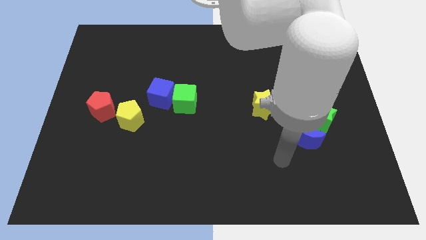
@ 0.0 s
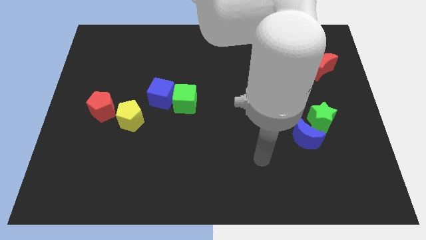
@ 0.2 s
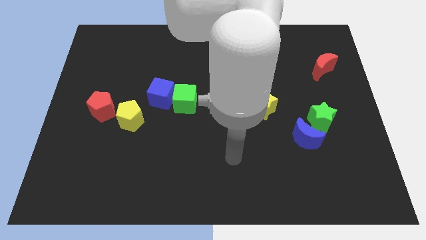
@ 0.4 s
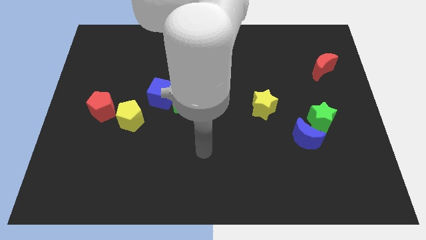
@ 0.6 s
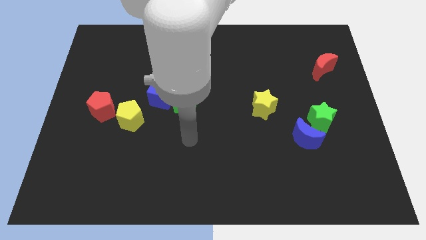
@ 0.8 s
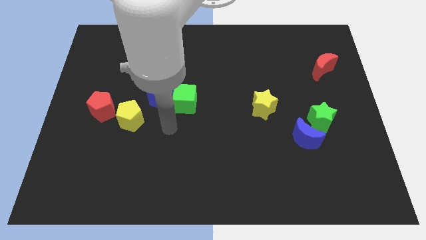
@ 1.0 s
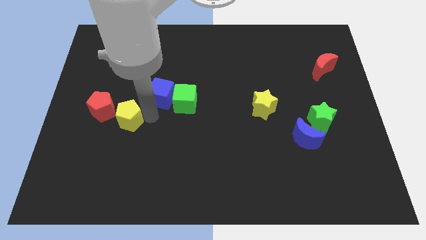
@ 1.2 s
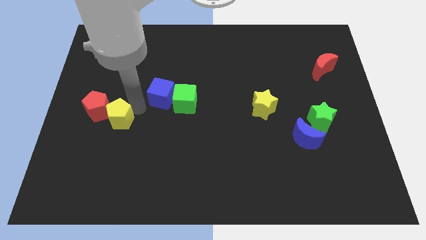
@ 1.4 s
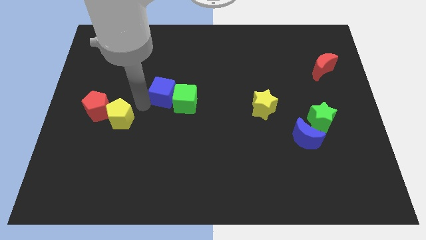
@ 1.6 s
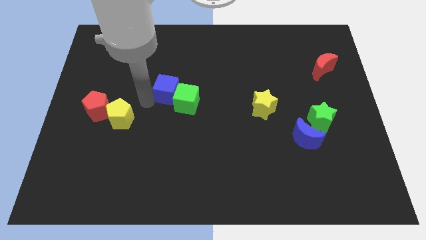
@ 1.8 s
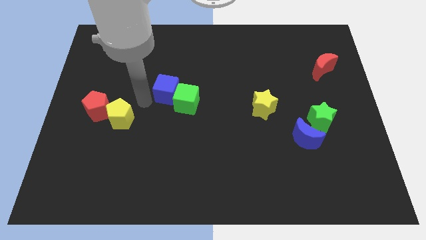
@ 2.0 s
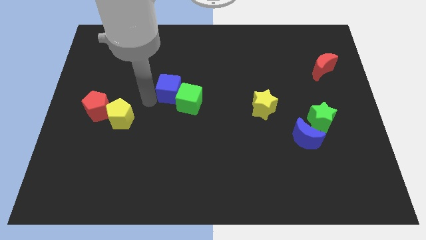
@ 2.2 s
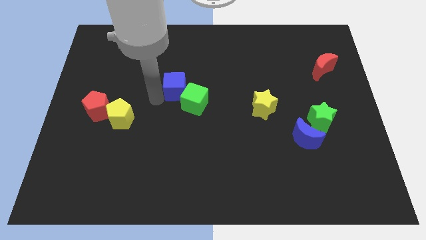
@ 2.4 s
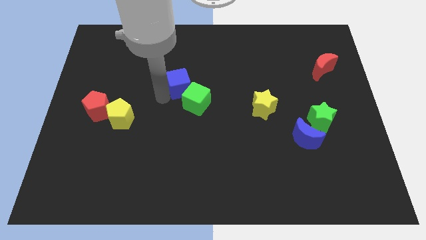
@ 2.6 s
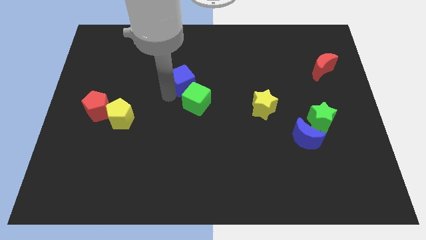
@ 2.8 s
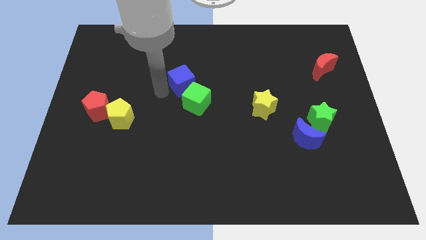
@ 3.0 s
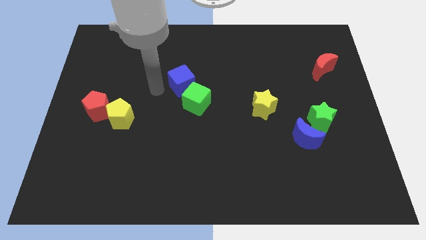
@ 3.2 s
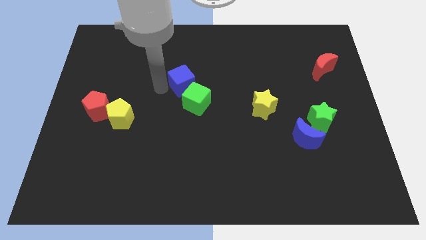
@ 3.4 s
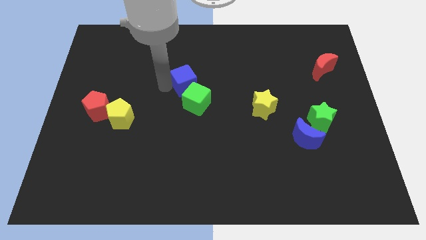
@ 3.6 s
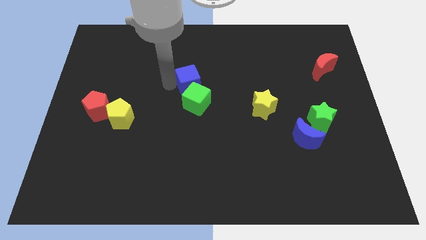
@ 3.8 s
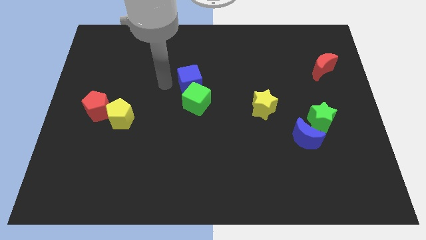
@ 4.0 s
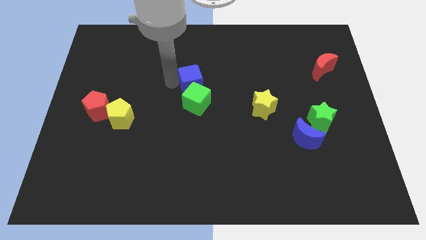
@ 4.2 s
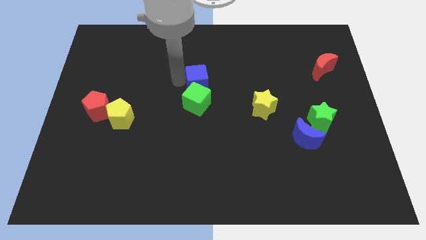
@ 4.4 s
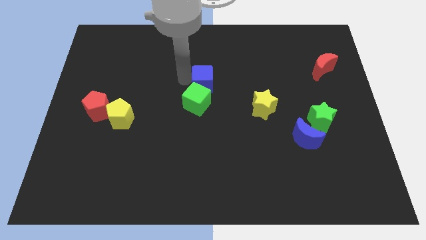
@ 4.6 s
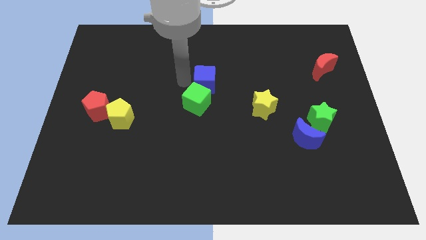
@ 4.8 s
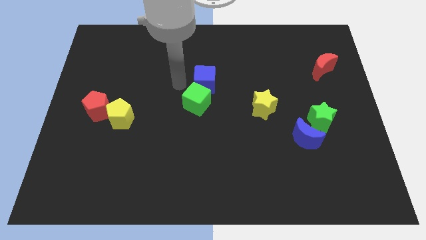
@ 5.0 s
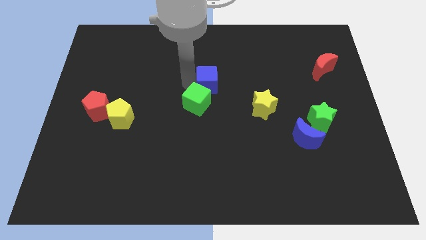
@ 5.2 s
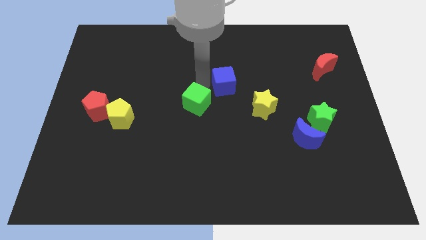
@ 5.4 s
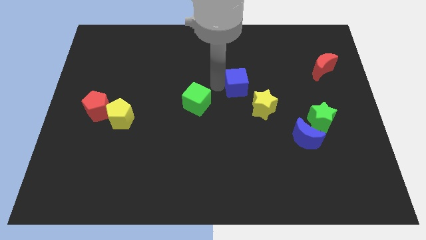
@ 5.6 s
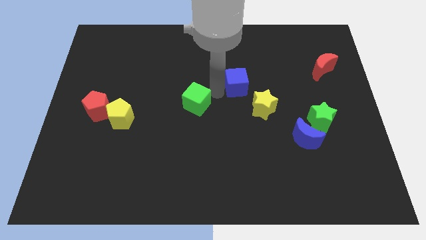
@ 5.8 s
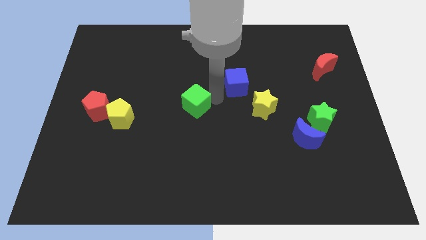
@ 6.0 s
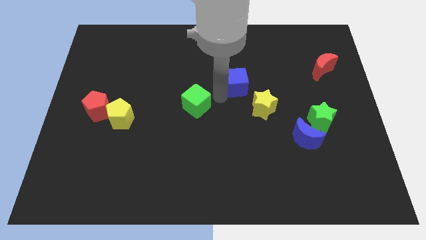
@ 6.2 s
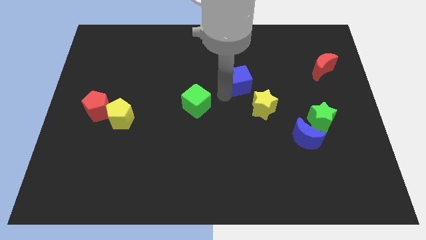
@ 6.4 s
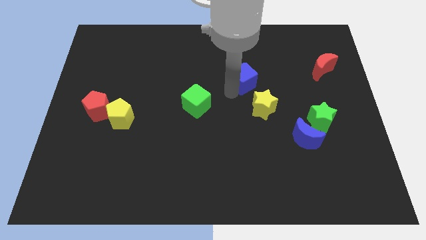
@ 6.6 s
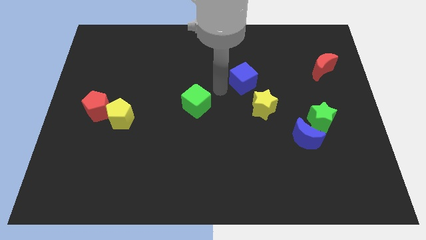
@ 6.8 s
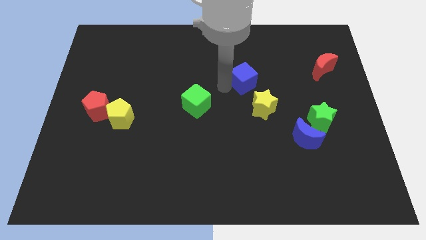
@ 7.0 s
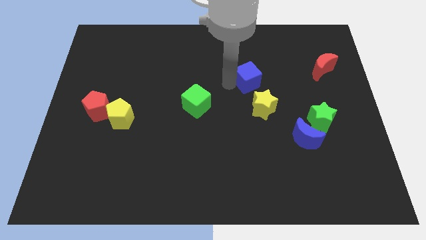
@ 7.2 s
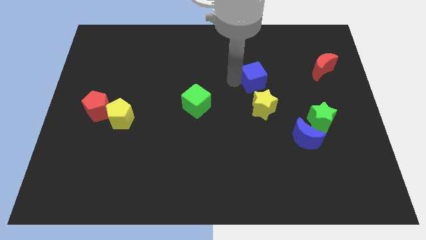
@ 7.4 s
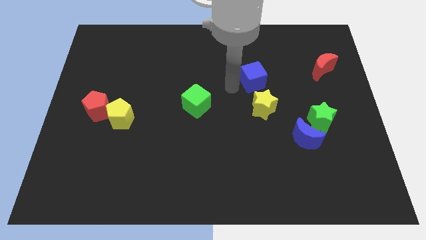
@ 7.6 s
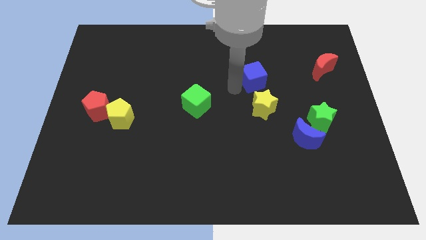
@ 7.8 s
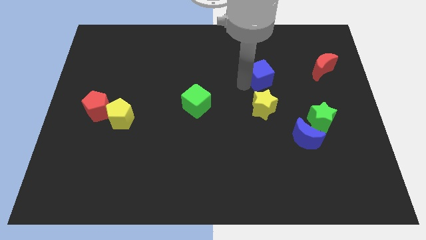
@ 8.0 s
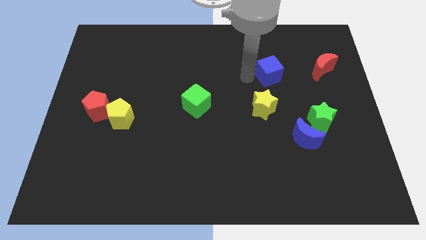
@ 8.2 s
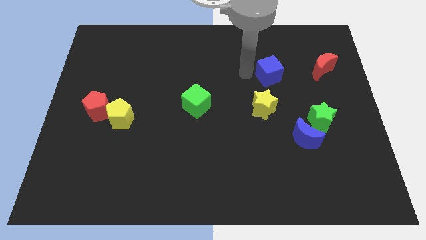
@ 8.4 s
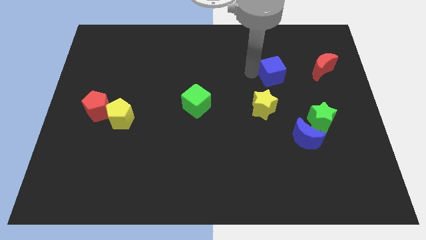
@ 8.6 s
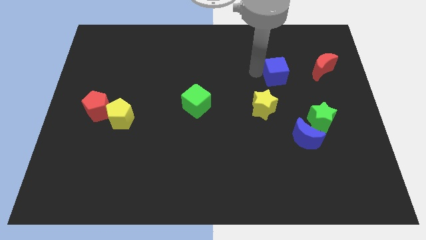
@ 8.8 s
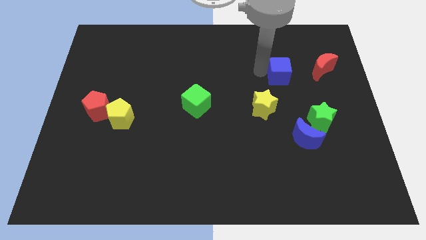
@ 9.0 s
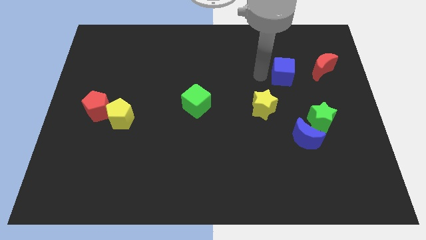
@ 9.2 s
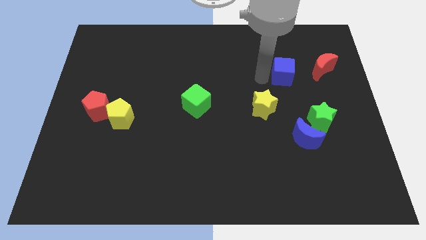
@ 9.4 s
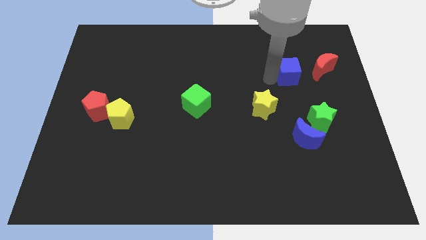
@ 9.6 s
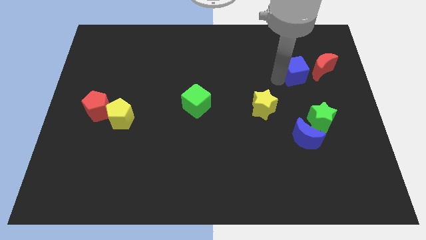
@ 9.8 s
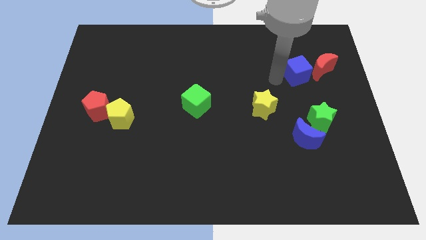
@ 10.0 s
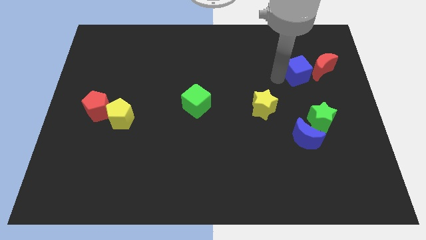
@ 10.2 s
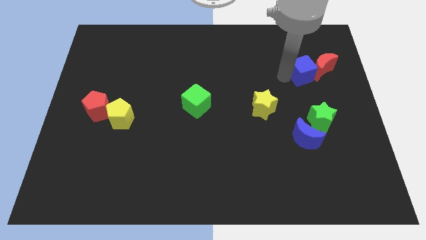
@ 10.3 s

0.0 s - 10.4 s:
slide the blue cube close to the red moon

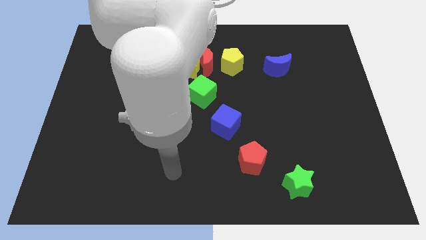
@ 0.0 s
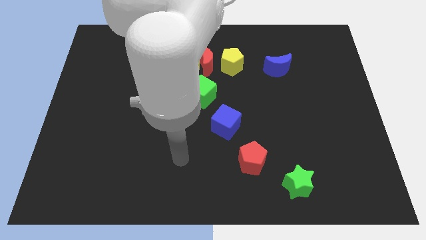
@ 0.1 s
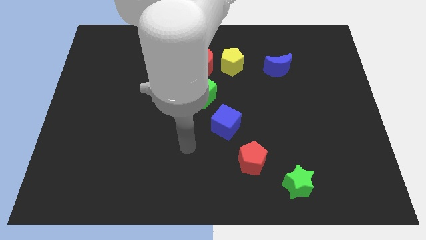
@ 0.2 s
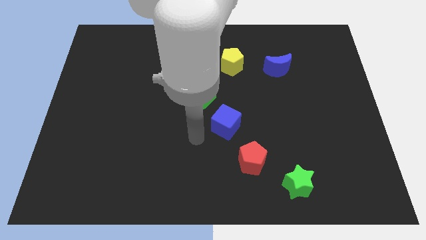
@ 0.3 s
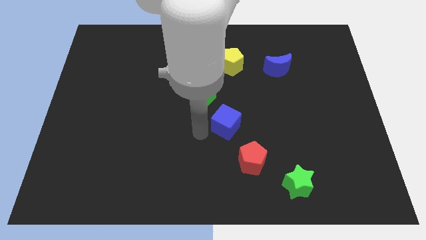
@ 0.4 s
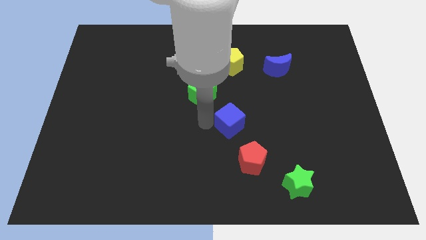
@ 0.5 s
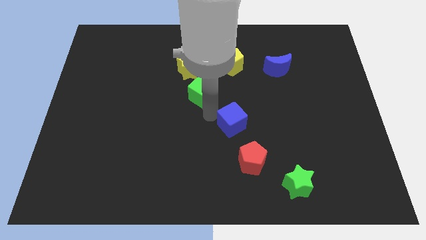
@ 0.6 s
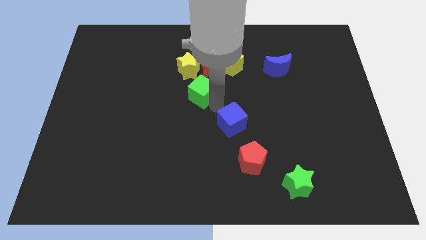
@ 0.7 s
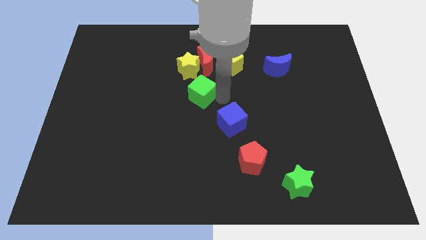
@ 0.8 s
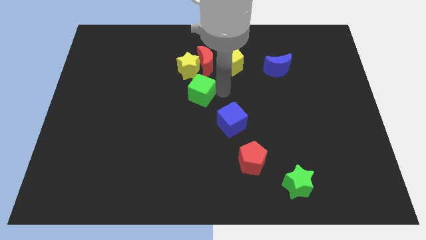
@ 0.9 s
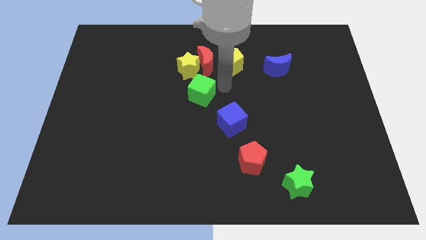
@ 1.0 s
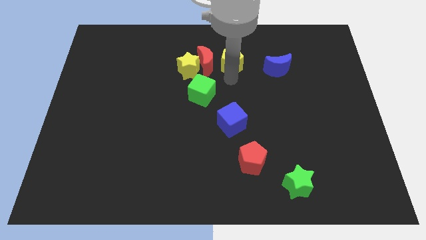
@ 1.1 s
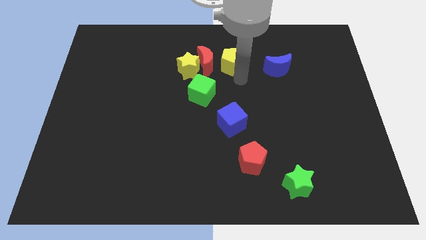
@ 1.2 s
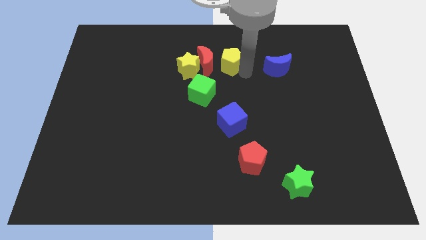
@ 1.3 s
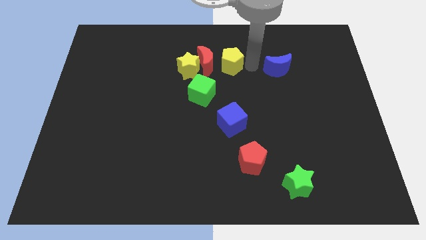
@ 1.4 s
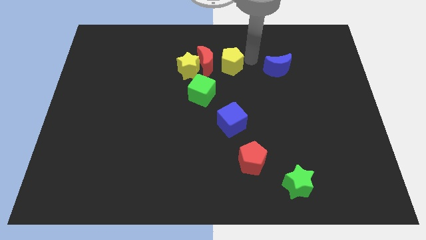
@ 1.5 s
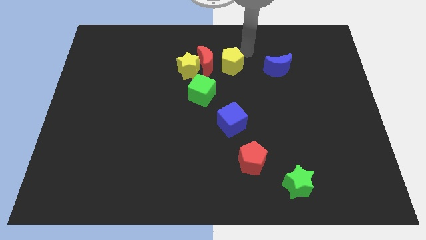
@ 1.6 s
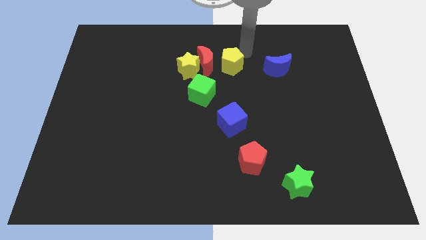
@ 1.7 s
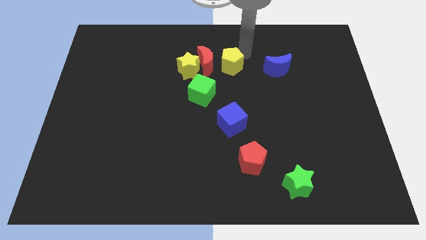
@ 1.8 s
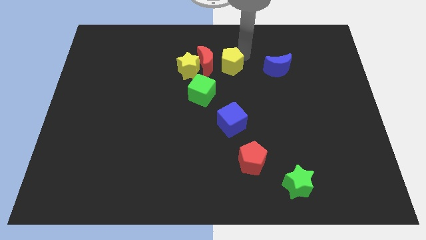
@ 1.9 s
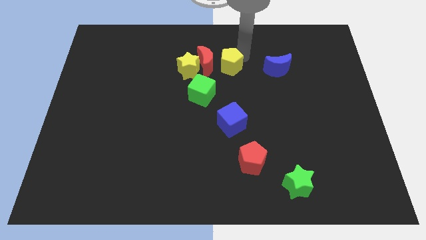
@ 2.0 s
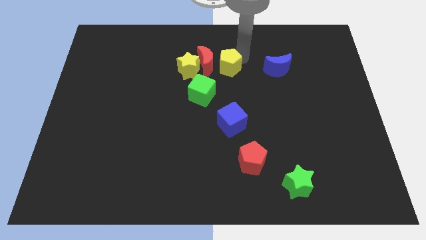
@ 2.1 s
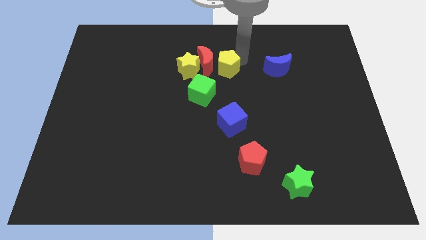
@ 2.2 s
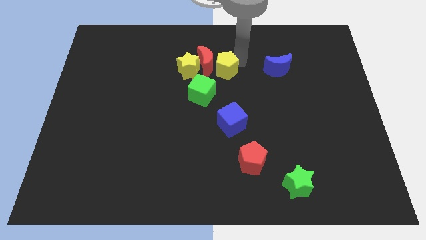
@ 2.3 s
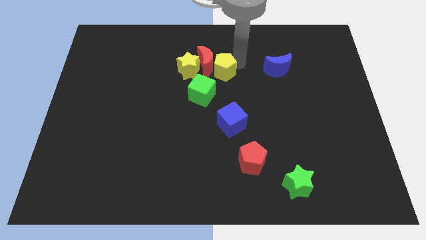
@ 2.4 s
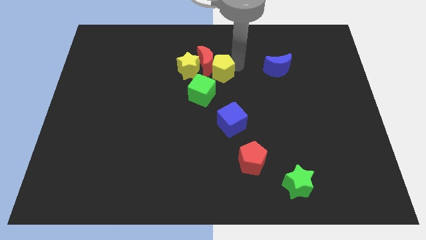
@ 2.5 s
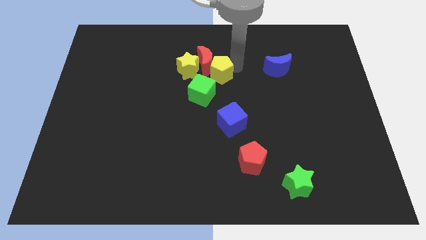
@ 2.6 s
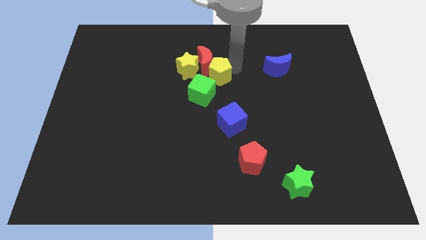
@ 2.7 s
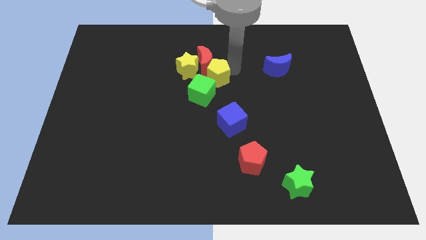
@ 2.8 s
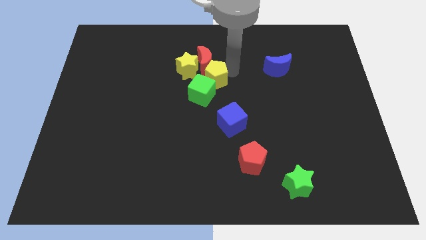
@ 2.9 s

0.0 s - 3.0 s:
slide the yellow pentagon towards the green cube
